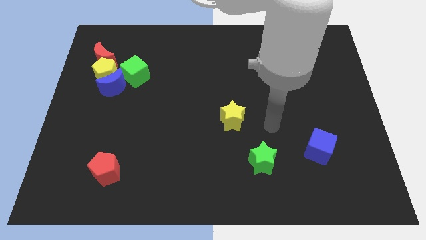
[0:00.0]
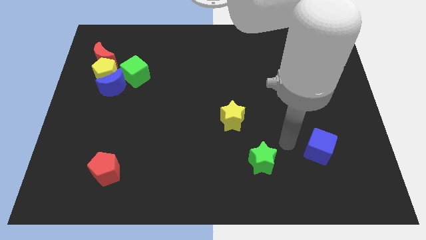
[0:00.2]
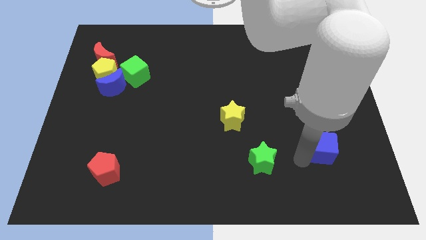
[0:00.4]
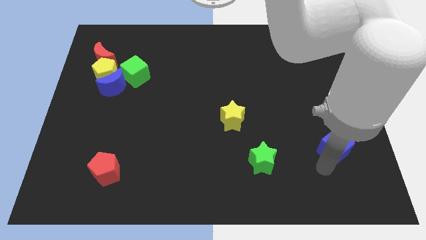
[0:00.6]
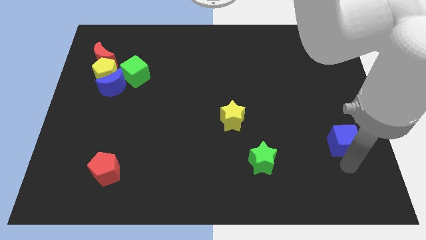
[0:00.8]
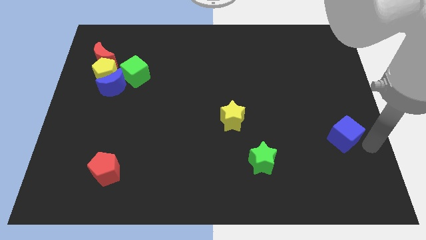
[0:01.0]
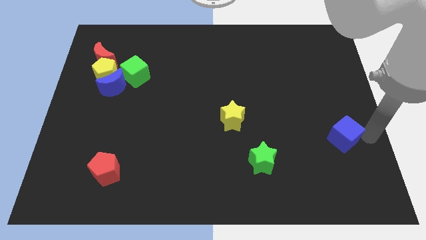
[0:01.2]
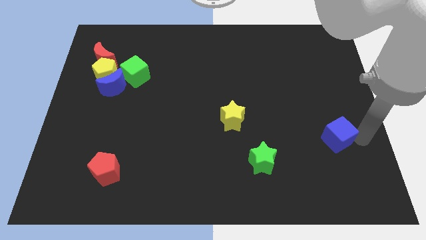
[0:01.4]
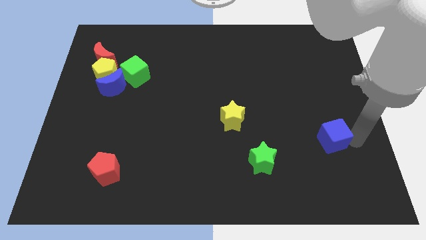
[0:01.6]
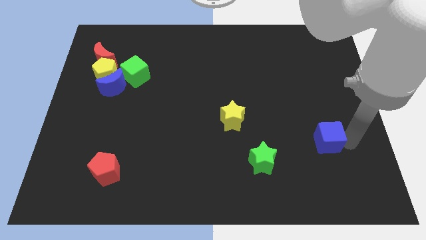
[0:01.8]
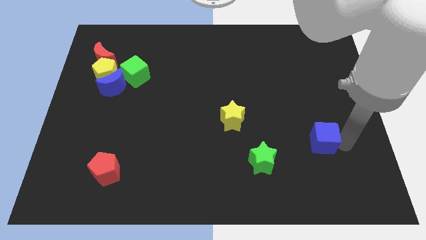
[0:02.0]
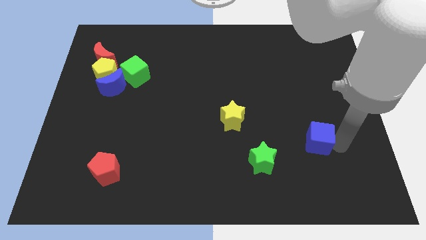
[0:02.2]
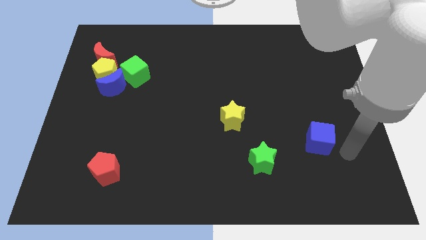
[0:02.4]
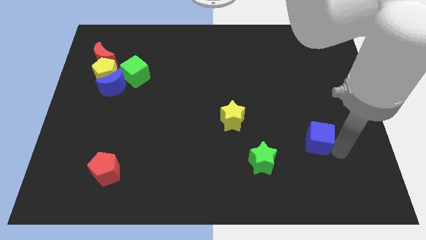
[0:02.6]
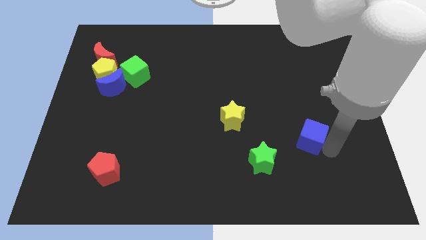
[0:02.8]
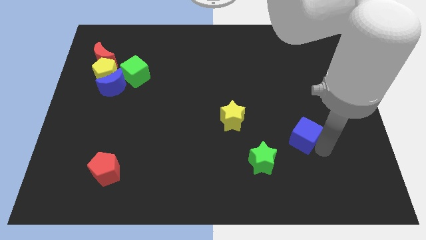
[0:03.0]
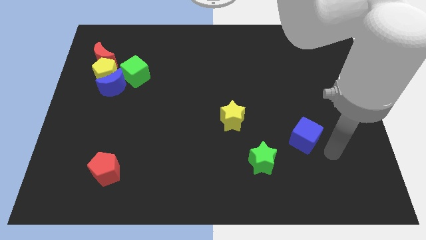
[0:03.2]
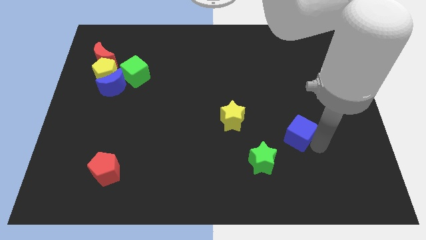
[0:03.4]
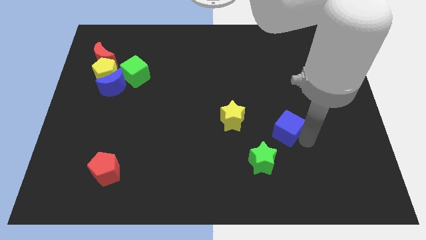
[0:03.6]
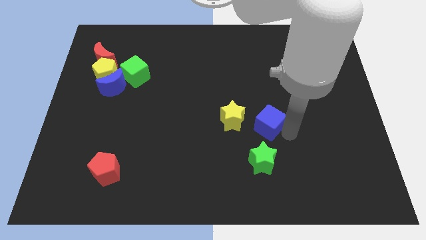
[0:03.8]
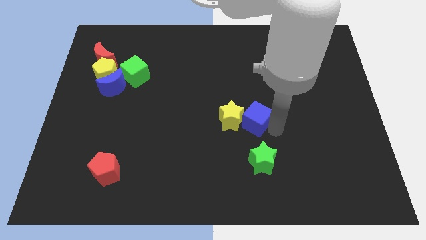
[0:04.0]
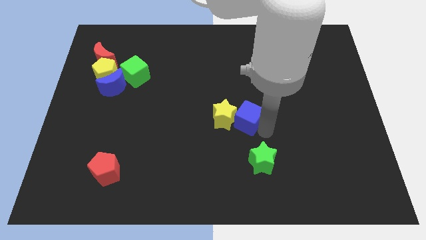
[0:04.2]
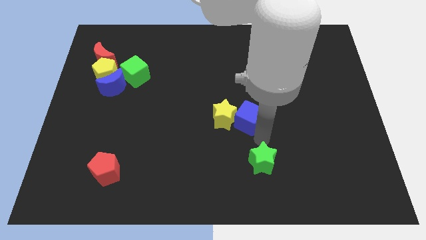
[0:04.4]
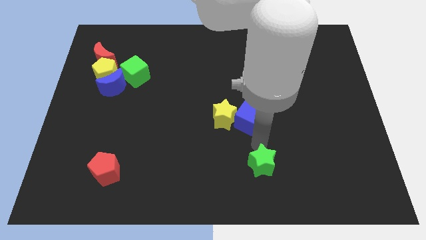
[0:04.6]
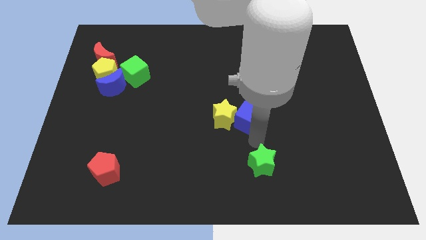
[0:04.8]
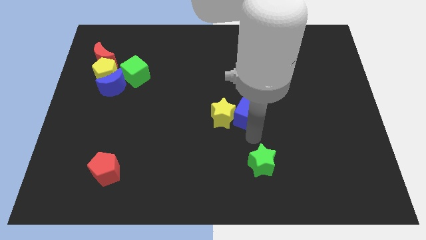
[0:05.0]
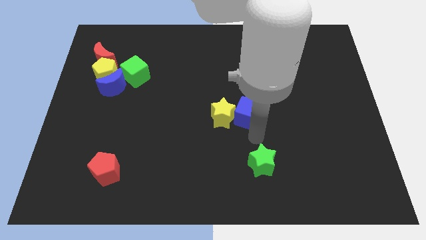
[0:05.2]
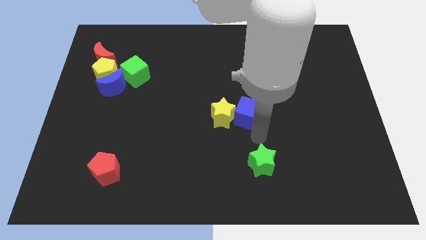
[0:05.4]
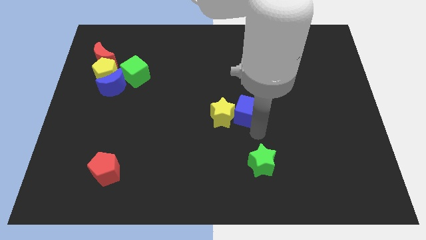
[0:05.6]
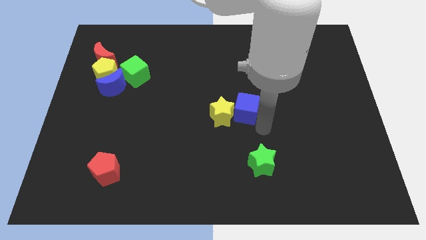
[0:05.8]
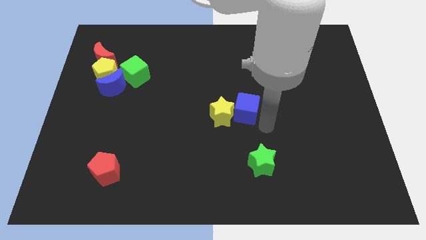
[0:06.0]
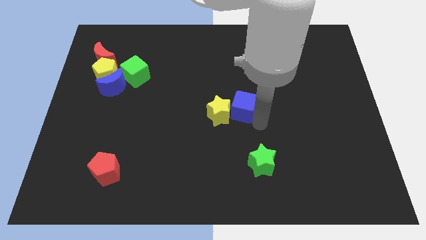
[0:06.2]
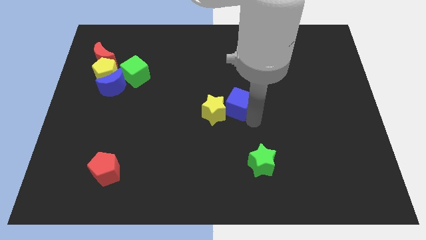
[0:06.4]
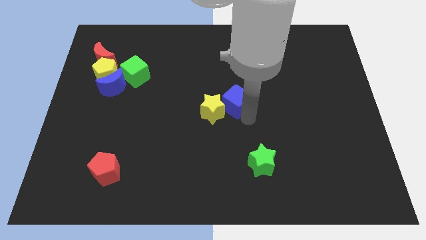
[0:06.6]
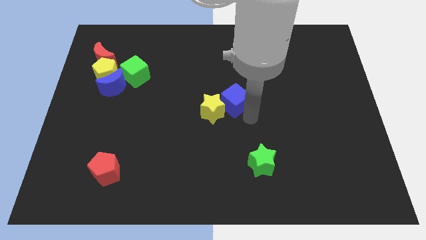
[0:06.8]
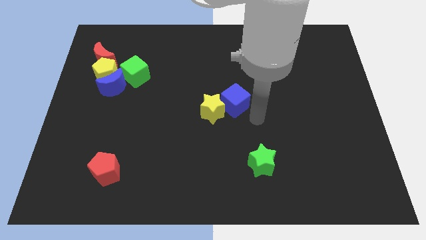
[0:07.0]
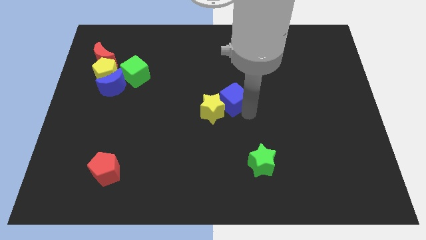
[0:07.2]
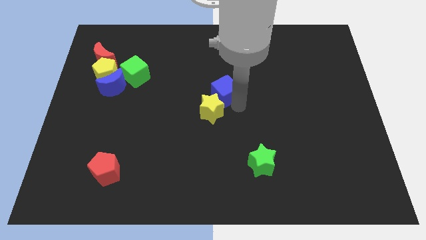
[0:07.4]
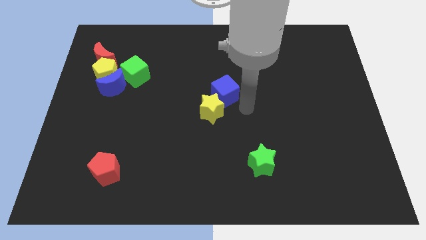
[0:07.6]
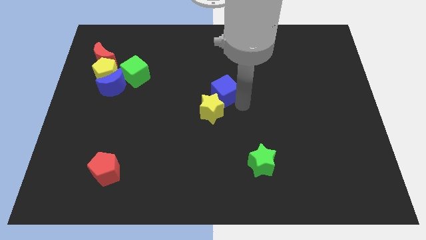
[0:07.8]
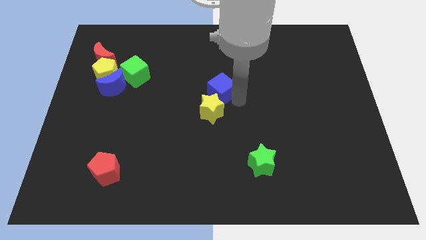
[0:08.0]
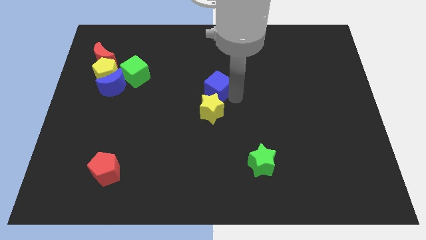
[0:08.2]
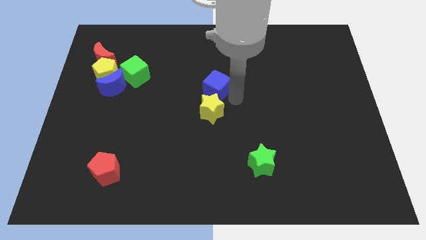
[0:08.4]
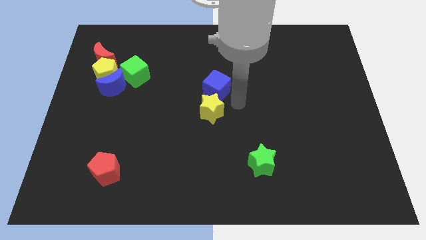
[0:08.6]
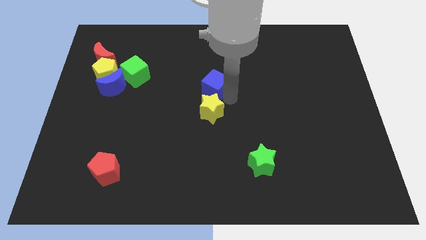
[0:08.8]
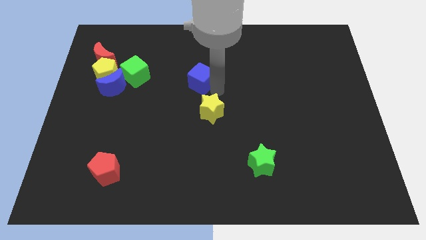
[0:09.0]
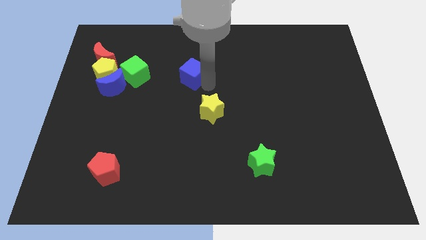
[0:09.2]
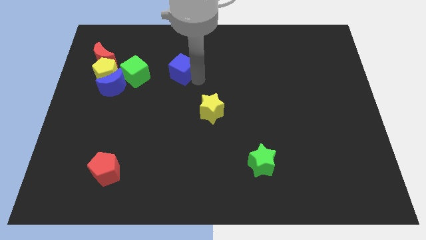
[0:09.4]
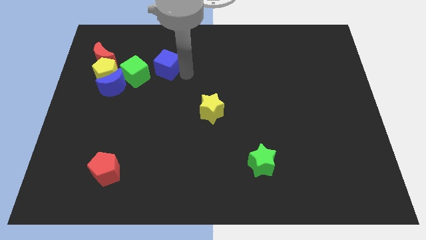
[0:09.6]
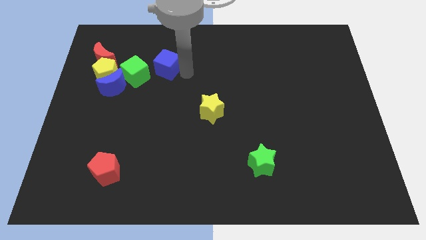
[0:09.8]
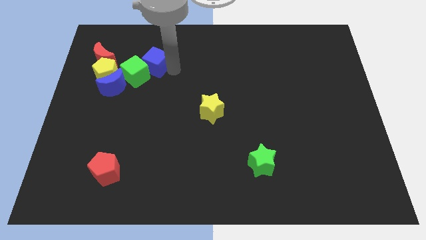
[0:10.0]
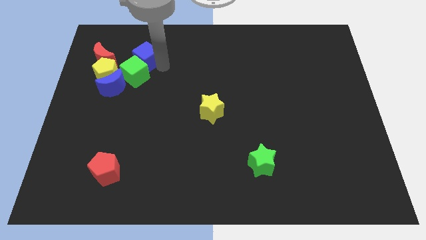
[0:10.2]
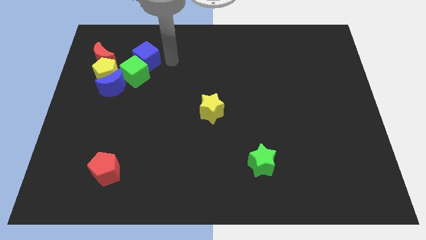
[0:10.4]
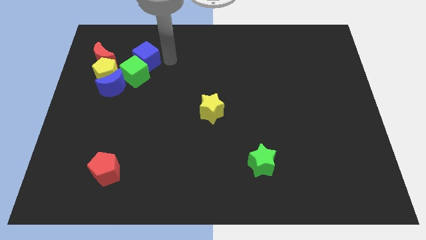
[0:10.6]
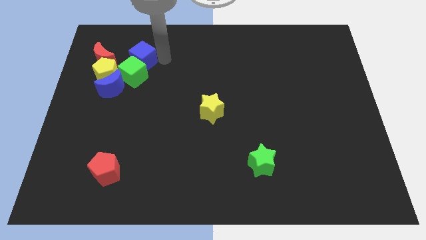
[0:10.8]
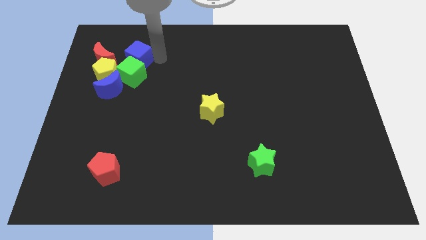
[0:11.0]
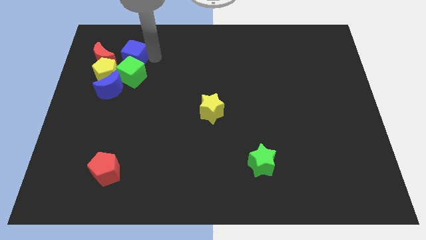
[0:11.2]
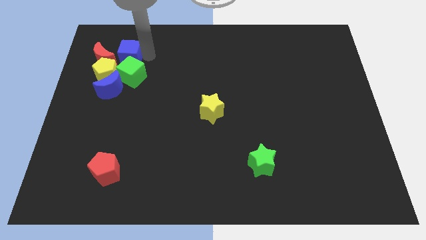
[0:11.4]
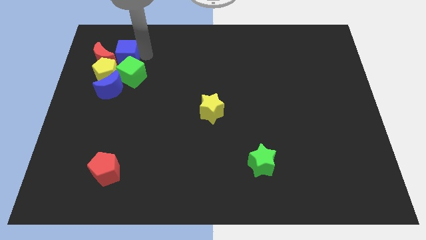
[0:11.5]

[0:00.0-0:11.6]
push the blue cube close to the red moon

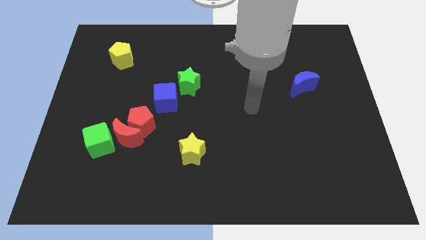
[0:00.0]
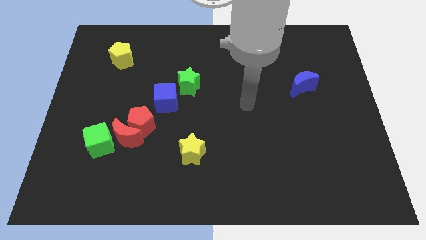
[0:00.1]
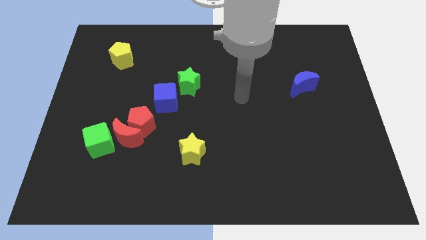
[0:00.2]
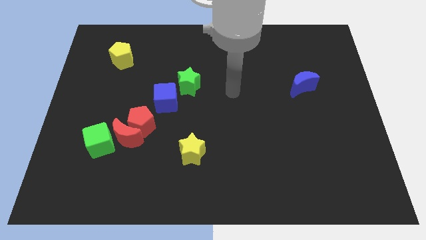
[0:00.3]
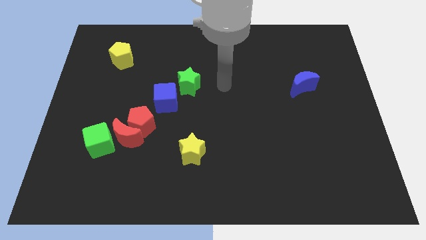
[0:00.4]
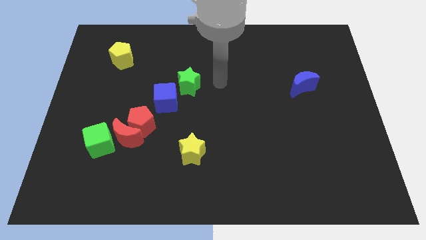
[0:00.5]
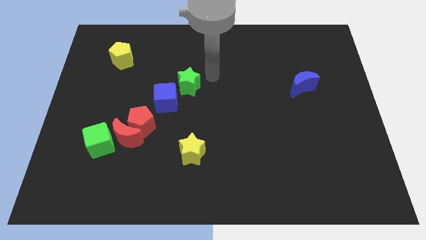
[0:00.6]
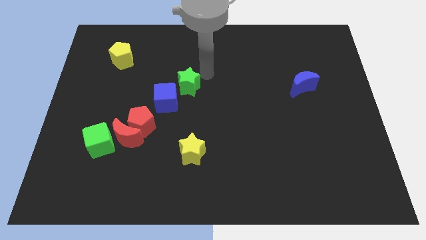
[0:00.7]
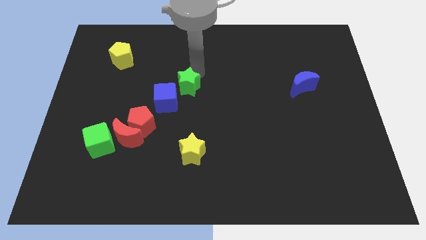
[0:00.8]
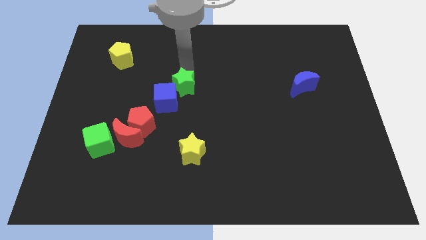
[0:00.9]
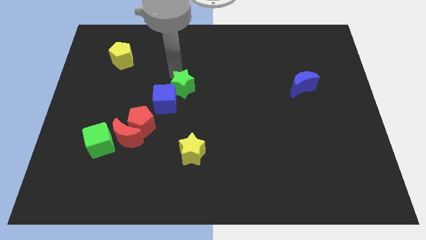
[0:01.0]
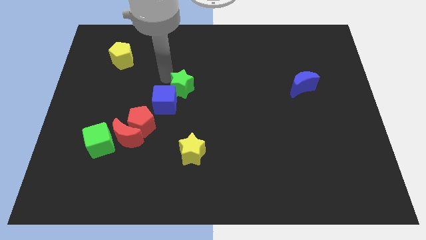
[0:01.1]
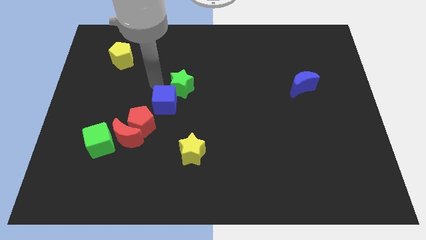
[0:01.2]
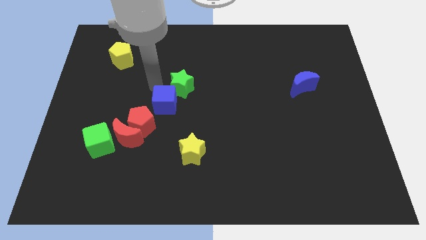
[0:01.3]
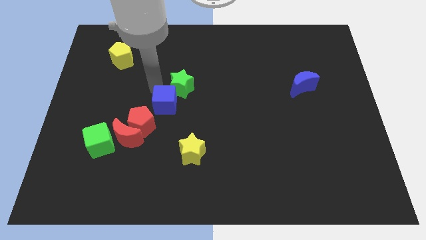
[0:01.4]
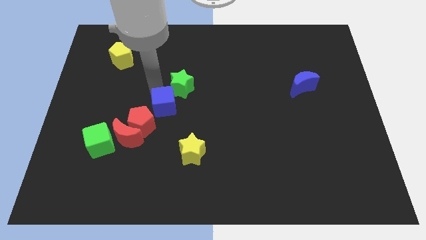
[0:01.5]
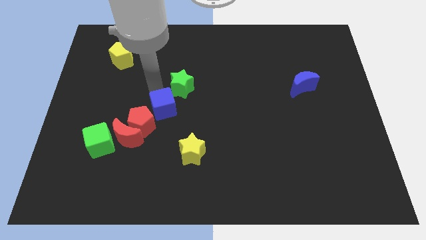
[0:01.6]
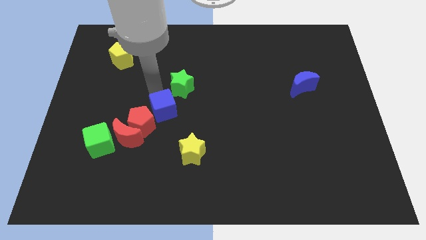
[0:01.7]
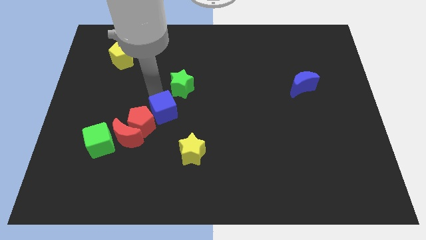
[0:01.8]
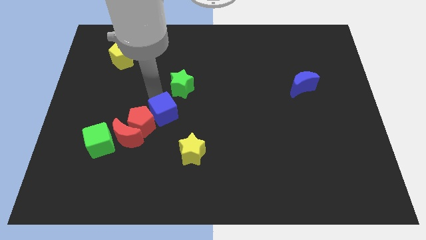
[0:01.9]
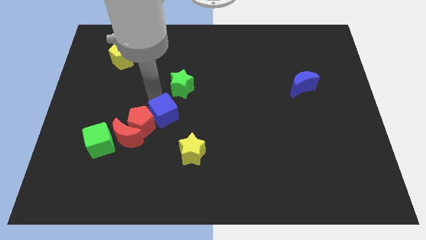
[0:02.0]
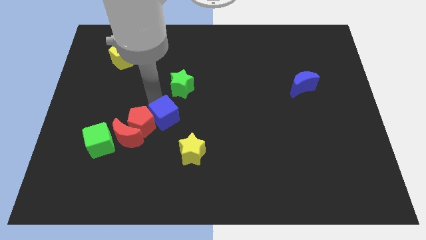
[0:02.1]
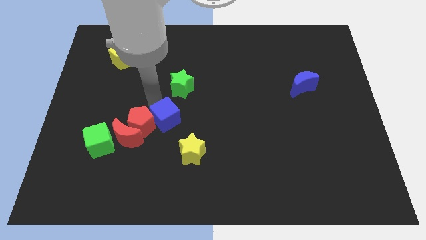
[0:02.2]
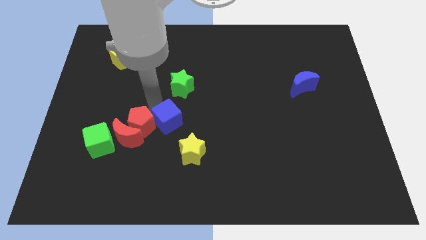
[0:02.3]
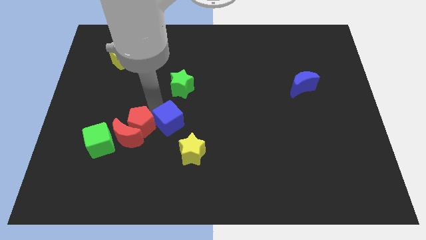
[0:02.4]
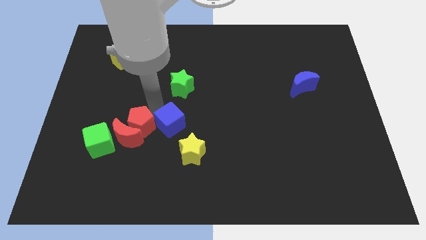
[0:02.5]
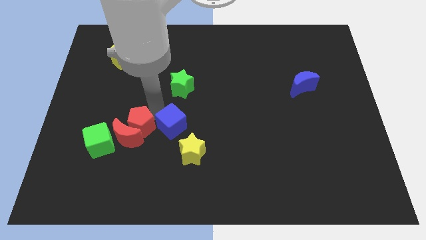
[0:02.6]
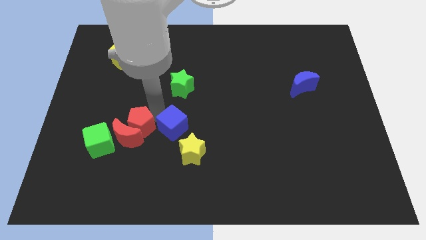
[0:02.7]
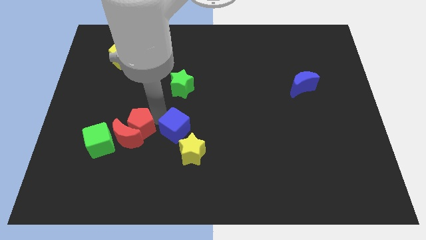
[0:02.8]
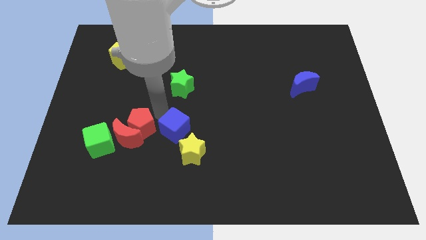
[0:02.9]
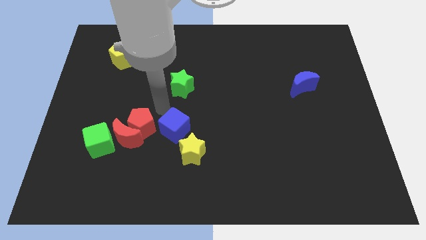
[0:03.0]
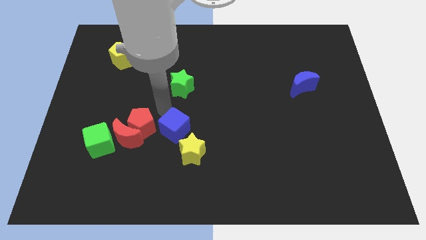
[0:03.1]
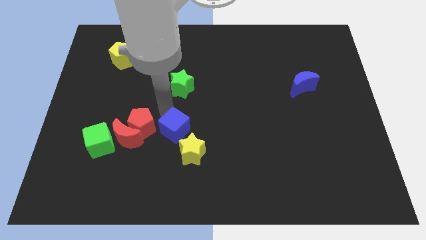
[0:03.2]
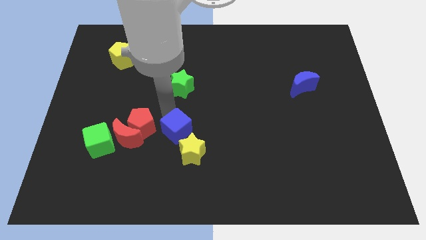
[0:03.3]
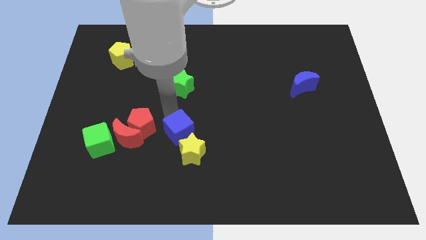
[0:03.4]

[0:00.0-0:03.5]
put the blue cube next to the yellow star
